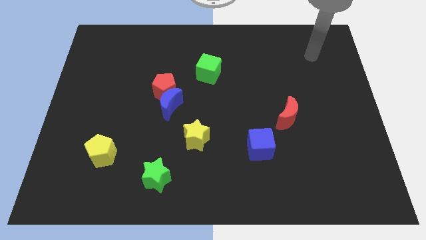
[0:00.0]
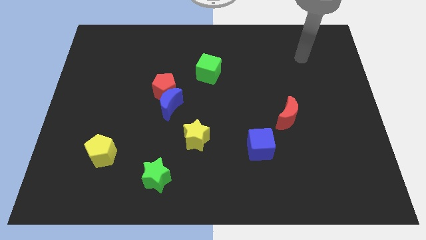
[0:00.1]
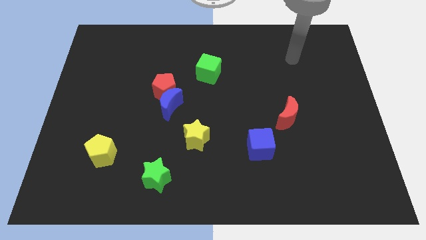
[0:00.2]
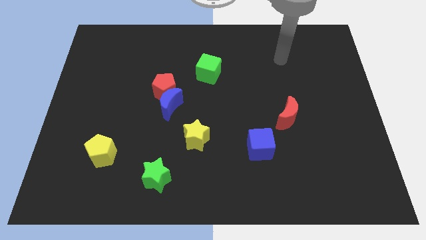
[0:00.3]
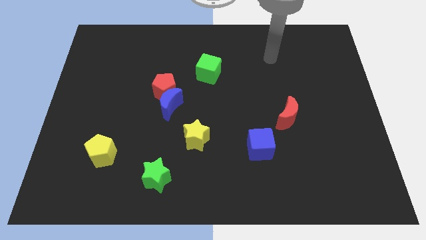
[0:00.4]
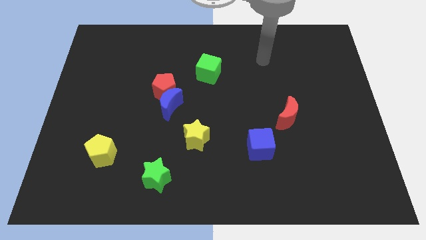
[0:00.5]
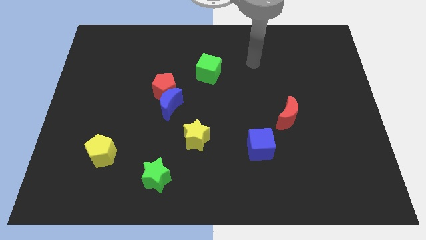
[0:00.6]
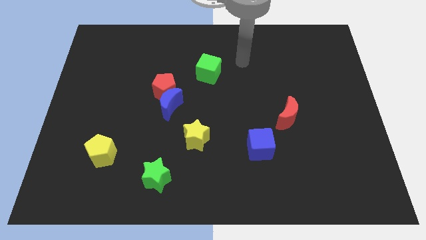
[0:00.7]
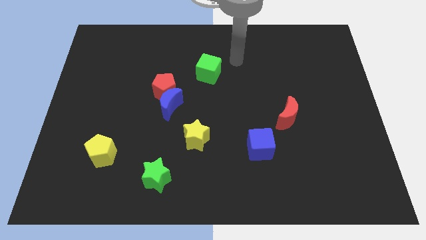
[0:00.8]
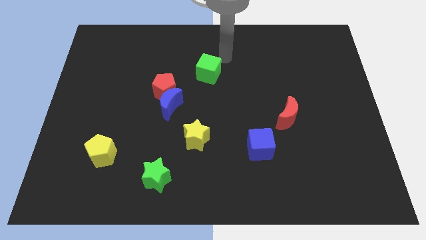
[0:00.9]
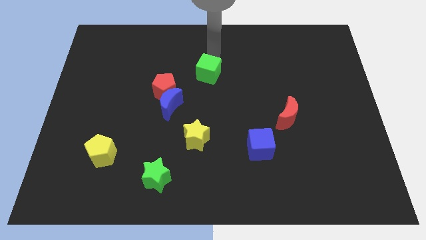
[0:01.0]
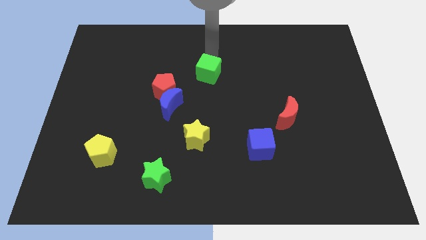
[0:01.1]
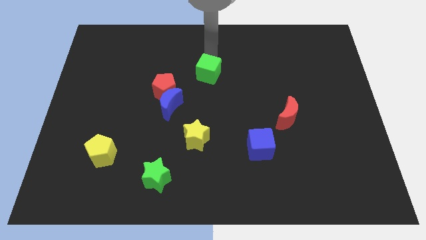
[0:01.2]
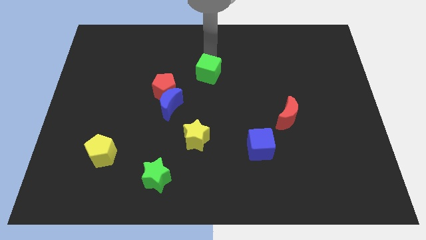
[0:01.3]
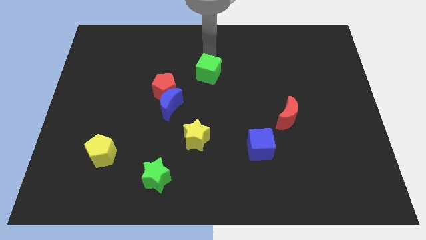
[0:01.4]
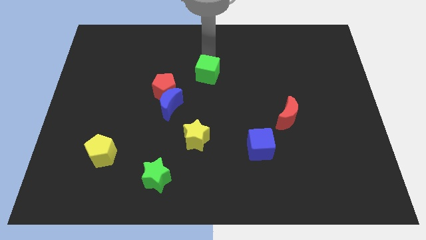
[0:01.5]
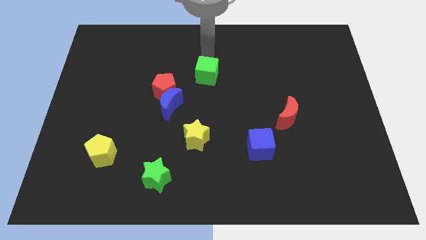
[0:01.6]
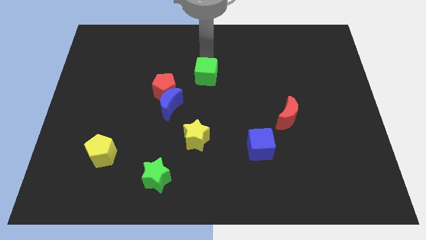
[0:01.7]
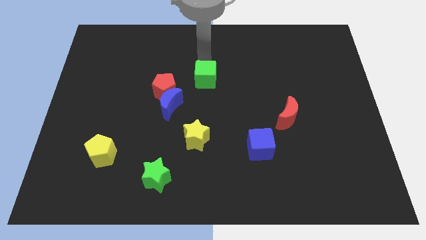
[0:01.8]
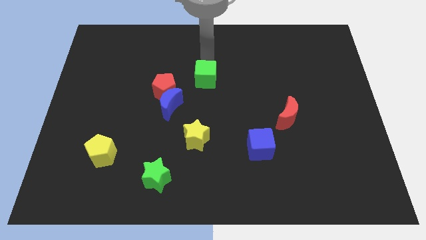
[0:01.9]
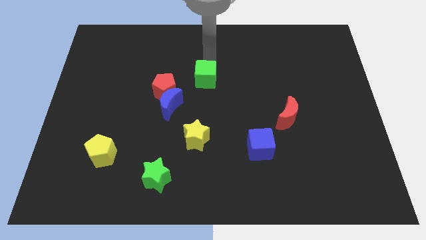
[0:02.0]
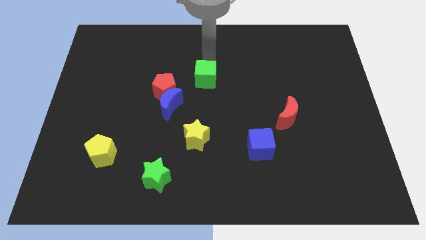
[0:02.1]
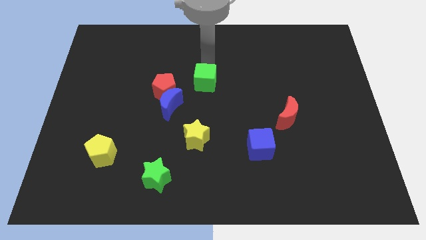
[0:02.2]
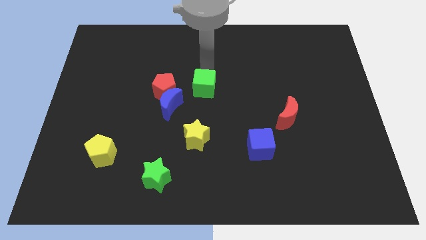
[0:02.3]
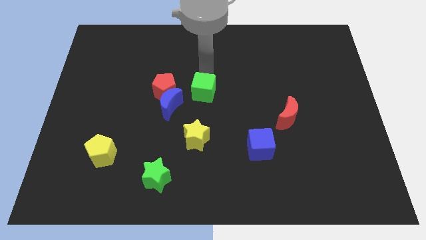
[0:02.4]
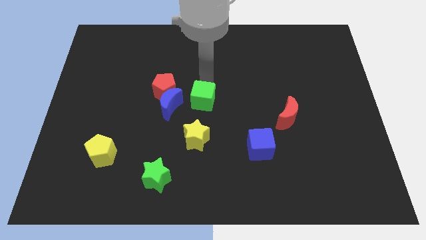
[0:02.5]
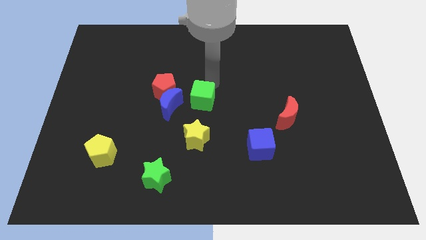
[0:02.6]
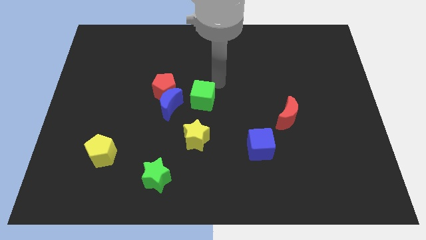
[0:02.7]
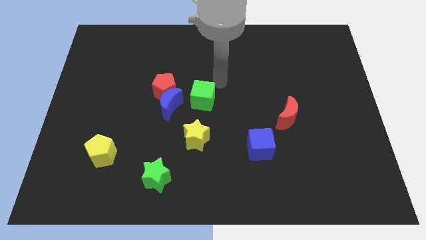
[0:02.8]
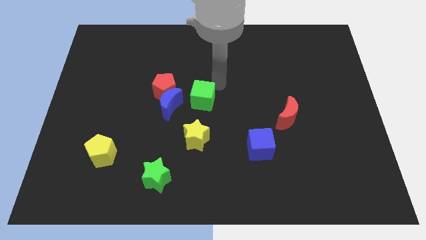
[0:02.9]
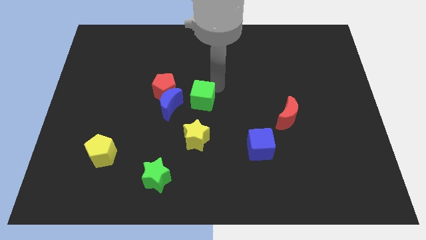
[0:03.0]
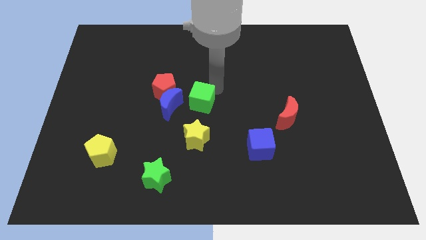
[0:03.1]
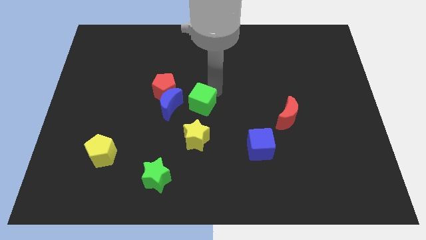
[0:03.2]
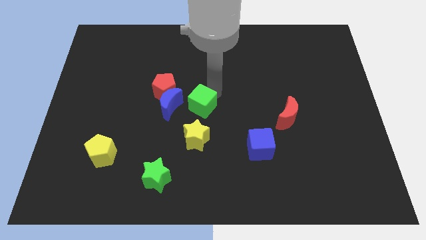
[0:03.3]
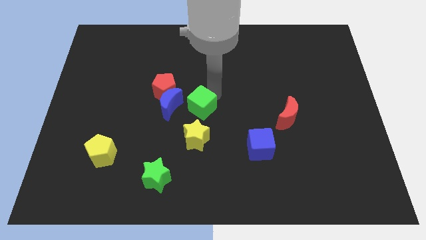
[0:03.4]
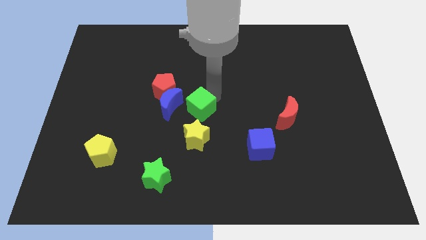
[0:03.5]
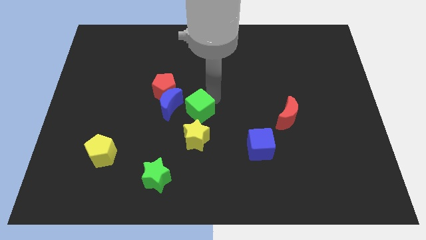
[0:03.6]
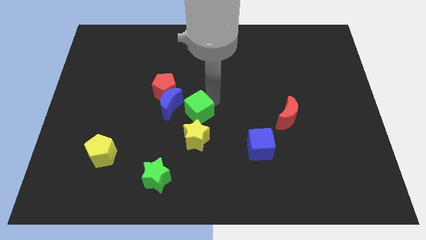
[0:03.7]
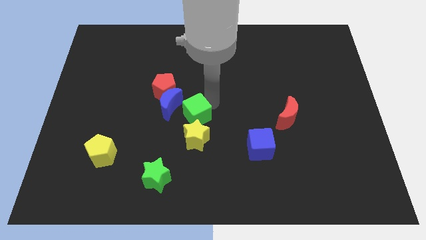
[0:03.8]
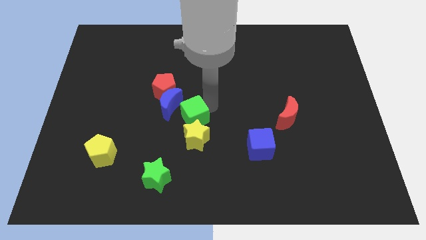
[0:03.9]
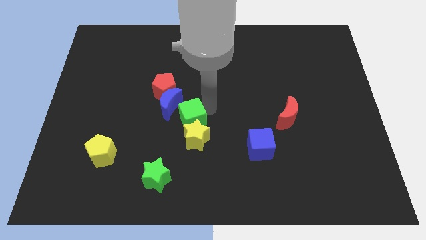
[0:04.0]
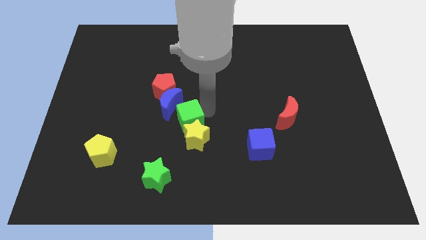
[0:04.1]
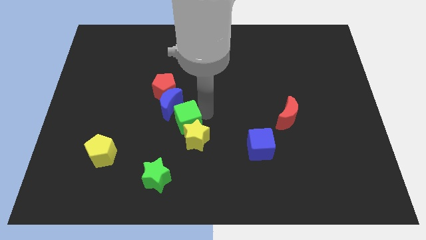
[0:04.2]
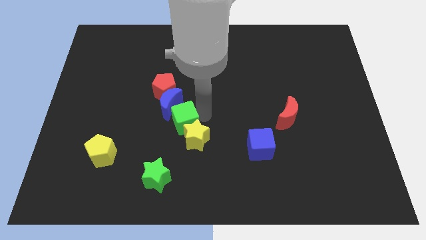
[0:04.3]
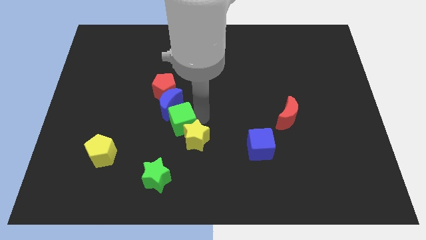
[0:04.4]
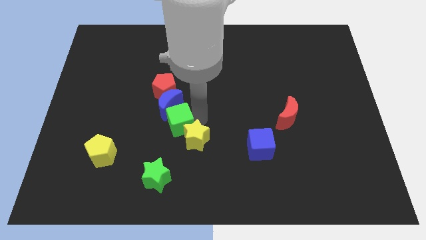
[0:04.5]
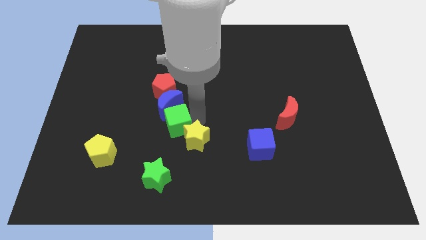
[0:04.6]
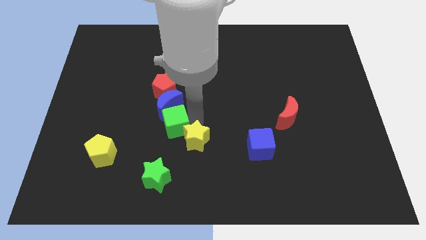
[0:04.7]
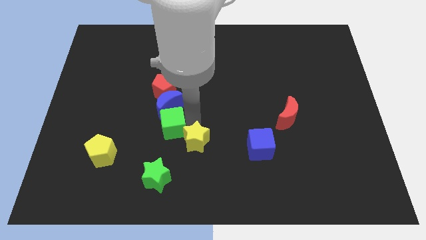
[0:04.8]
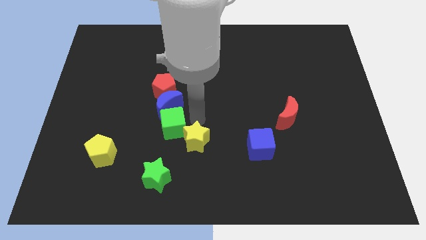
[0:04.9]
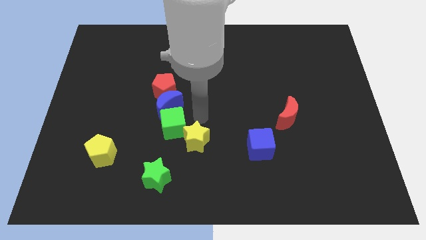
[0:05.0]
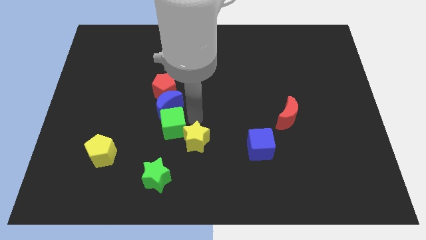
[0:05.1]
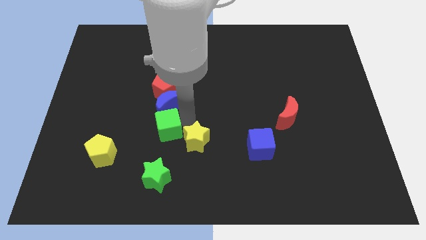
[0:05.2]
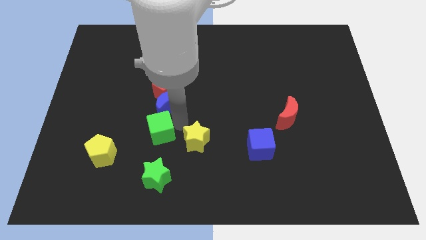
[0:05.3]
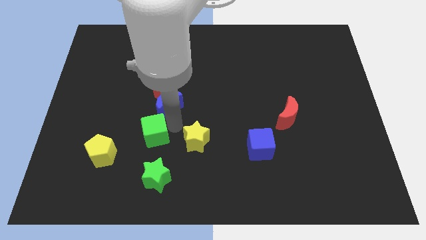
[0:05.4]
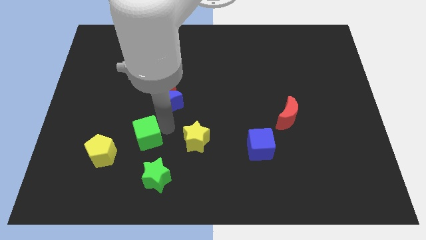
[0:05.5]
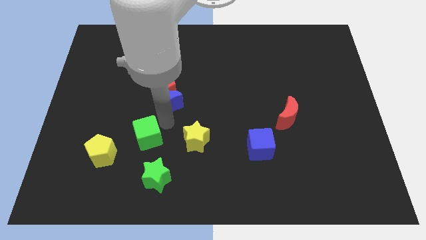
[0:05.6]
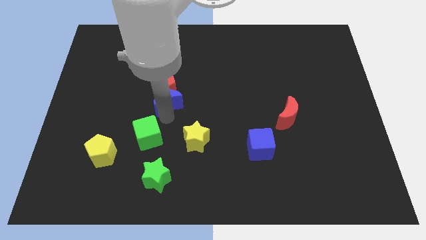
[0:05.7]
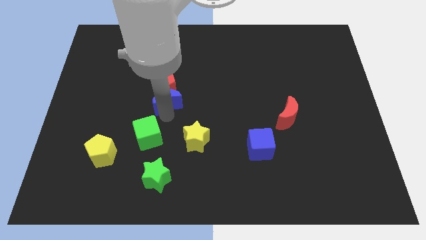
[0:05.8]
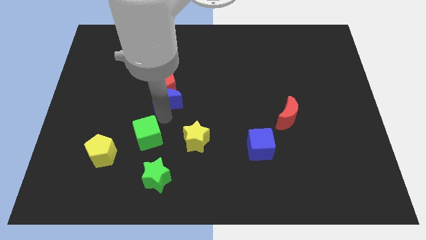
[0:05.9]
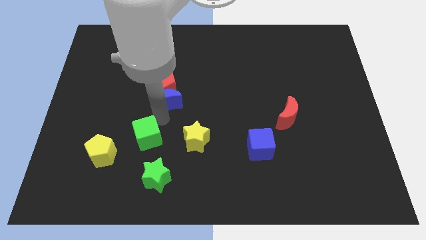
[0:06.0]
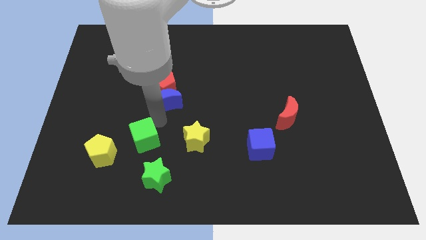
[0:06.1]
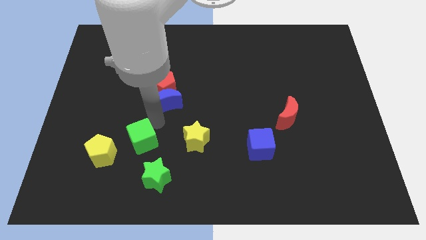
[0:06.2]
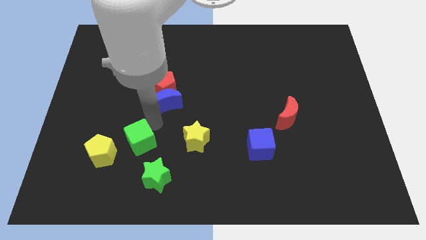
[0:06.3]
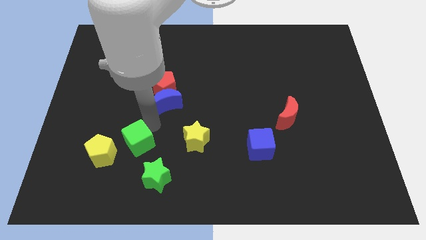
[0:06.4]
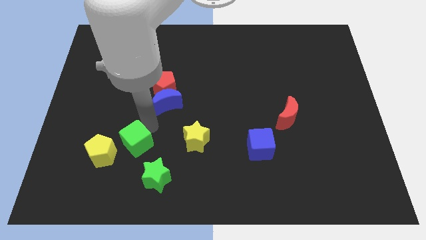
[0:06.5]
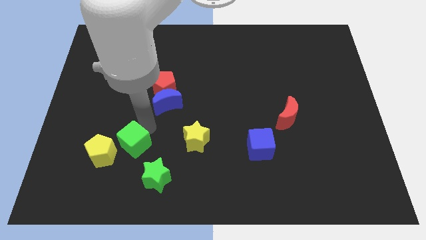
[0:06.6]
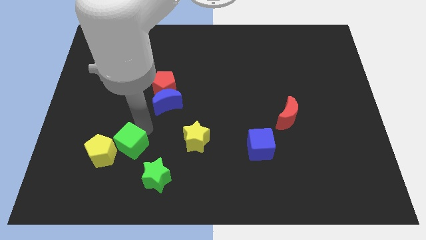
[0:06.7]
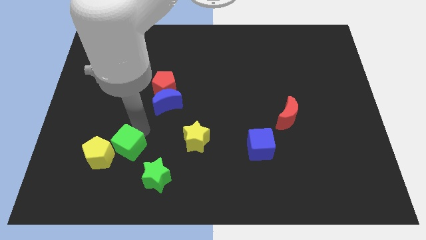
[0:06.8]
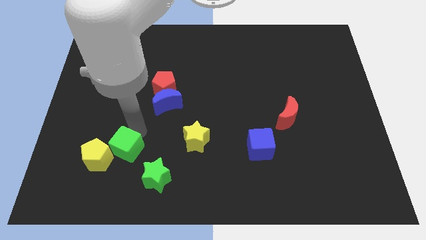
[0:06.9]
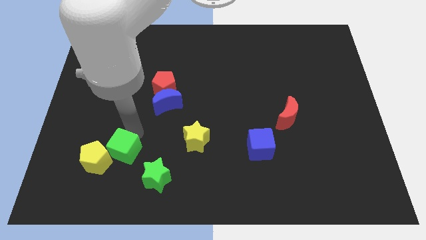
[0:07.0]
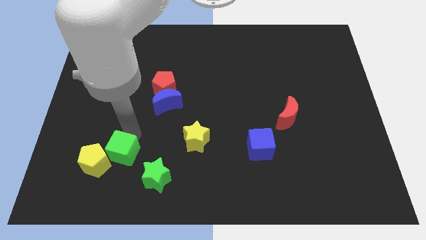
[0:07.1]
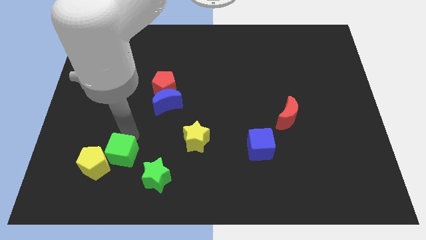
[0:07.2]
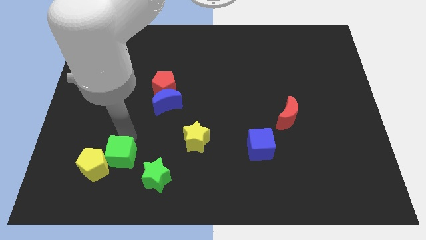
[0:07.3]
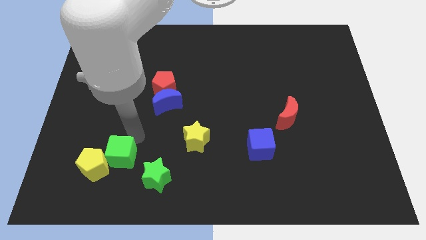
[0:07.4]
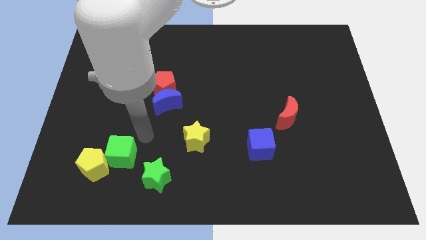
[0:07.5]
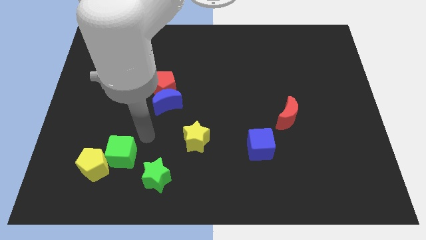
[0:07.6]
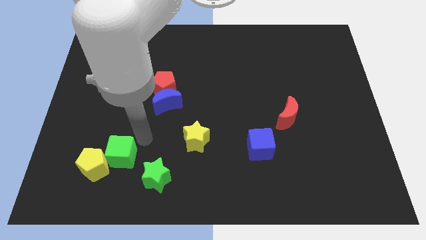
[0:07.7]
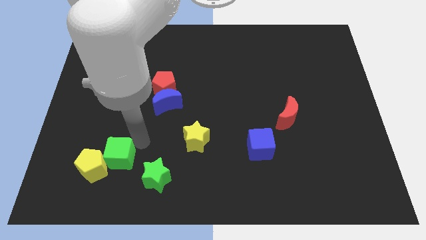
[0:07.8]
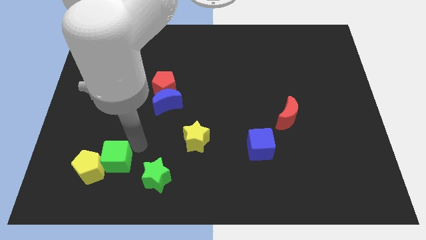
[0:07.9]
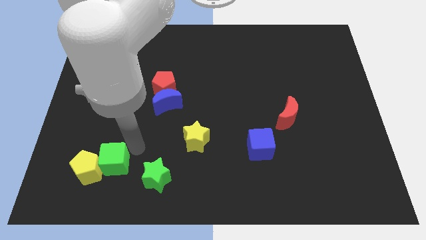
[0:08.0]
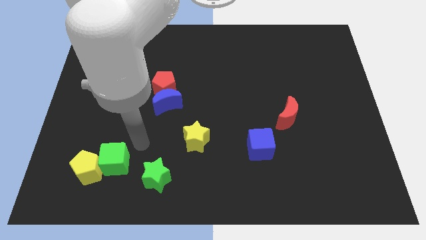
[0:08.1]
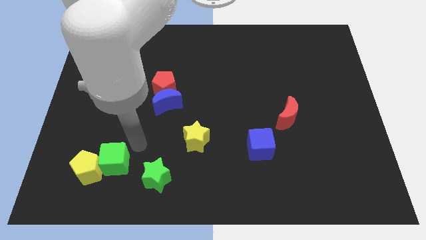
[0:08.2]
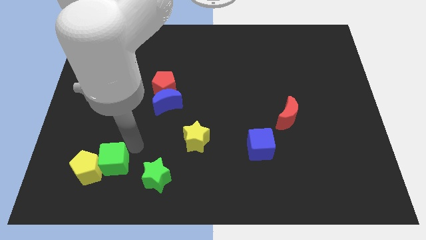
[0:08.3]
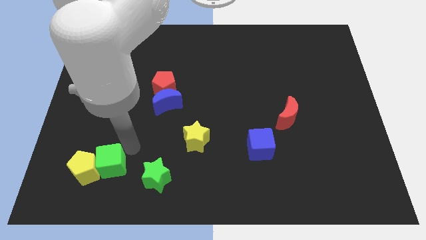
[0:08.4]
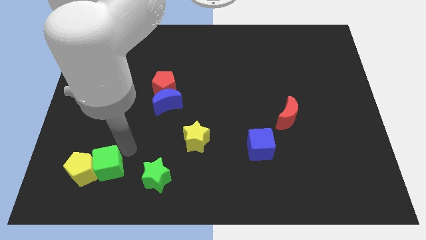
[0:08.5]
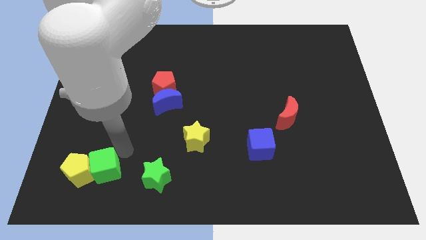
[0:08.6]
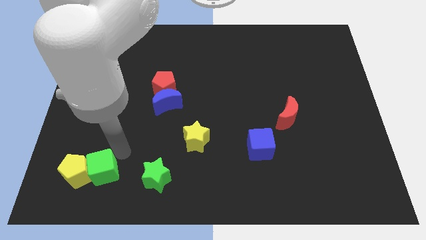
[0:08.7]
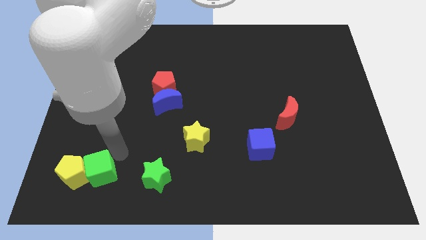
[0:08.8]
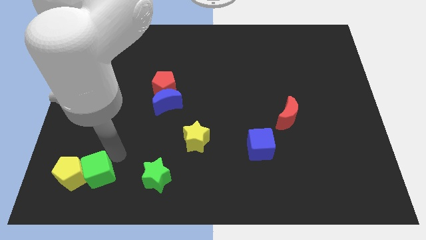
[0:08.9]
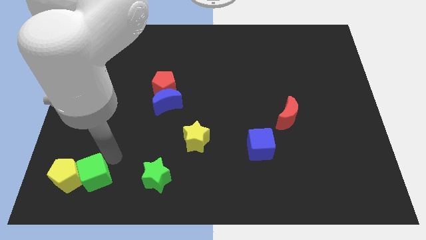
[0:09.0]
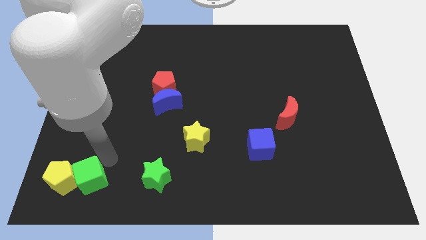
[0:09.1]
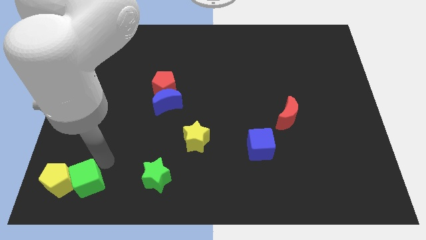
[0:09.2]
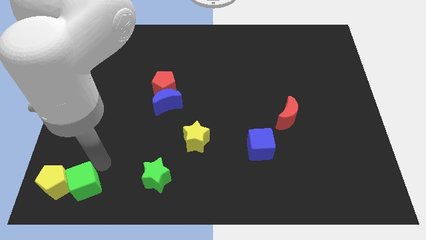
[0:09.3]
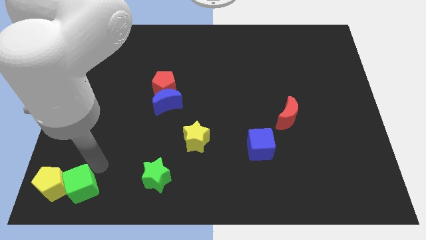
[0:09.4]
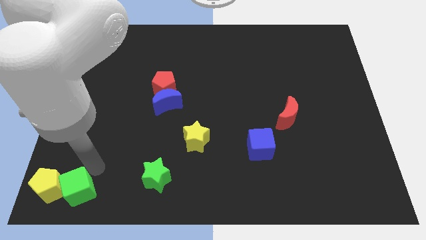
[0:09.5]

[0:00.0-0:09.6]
slide the green cube to the bottom left
